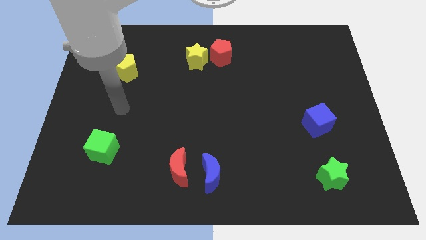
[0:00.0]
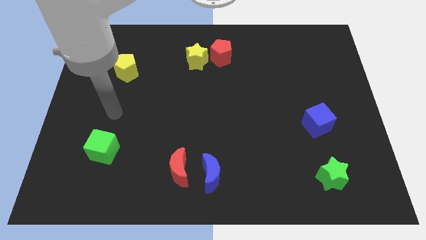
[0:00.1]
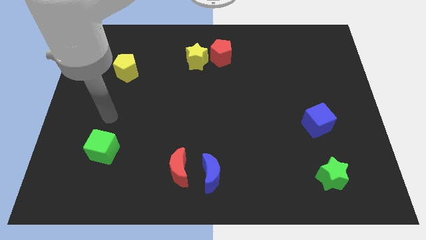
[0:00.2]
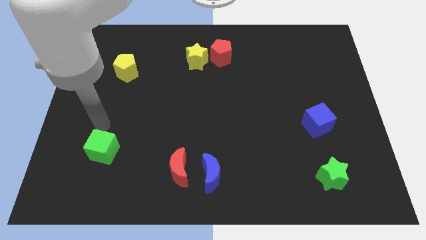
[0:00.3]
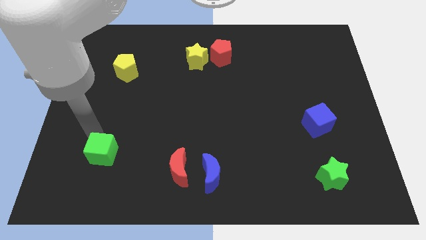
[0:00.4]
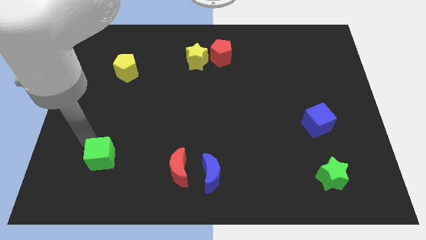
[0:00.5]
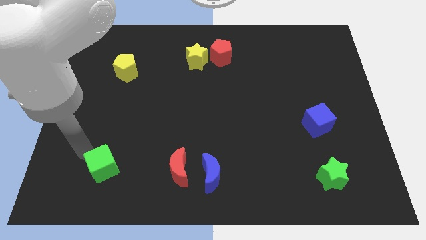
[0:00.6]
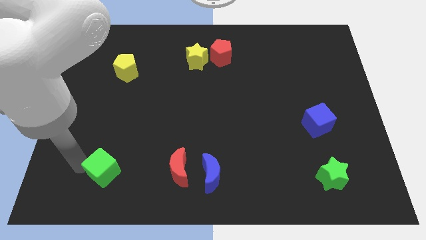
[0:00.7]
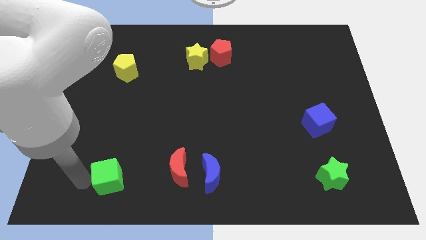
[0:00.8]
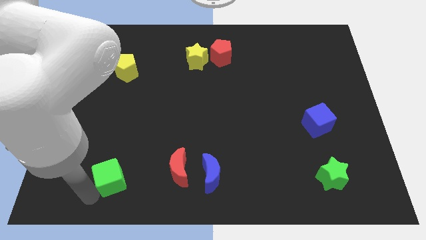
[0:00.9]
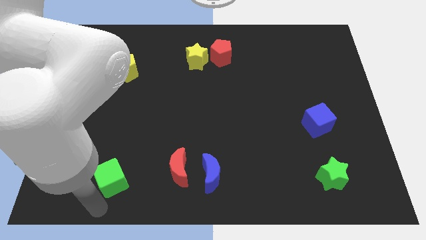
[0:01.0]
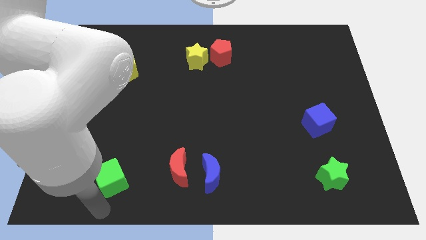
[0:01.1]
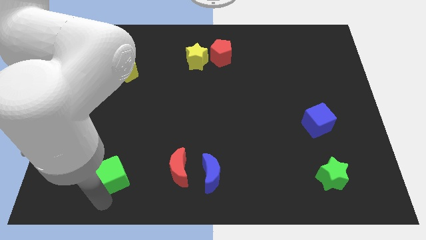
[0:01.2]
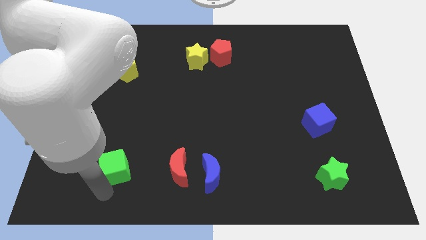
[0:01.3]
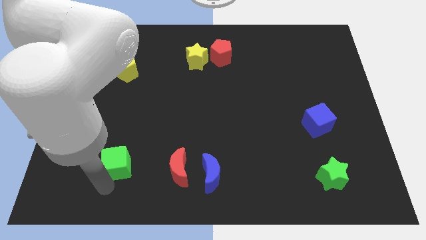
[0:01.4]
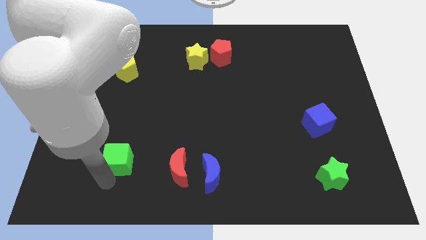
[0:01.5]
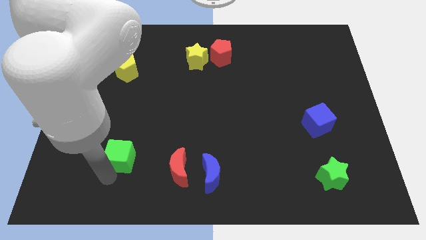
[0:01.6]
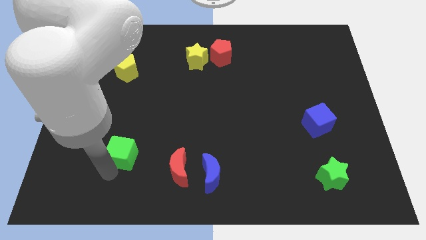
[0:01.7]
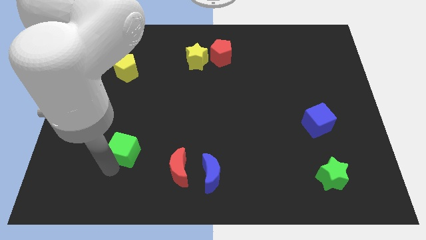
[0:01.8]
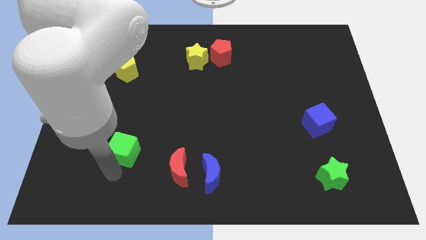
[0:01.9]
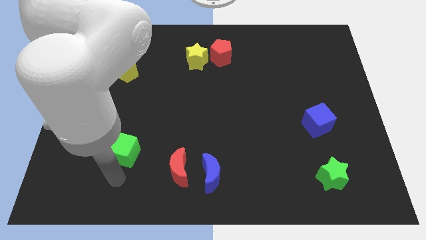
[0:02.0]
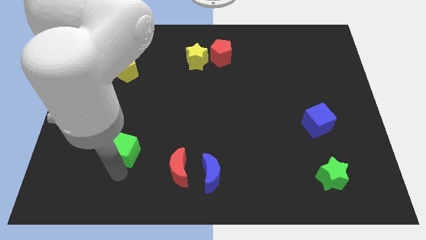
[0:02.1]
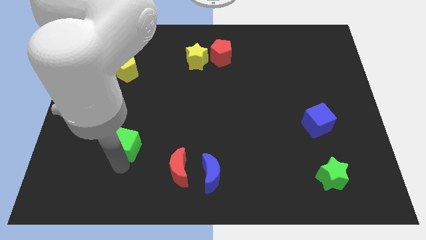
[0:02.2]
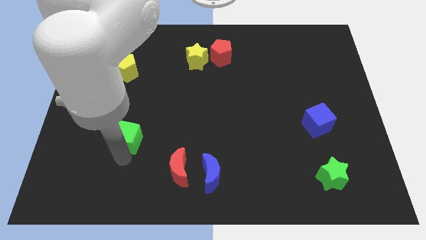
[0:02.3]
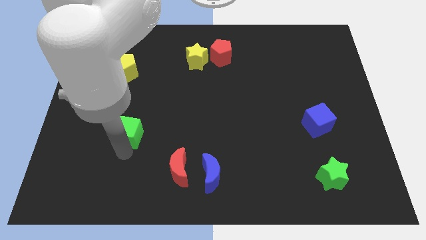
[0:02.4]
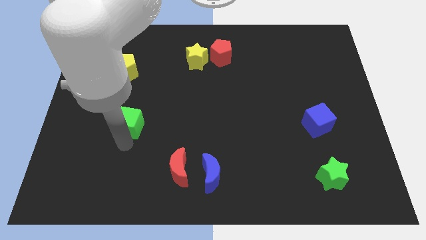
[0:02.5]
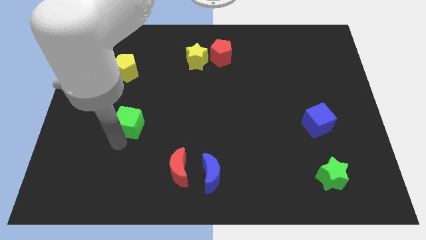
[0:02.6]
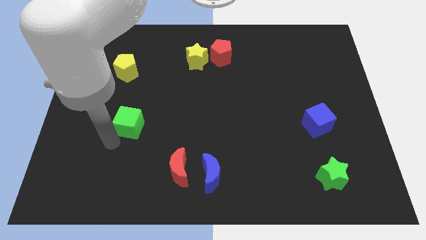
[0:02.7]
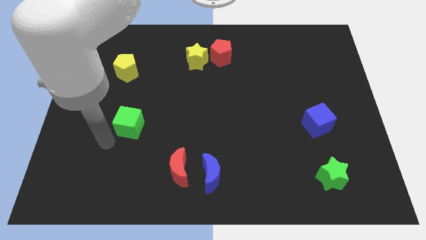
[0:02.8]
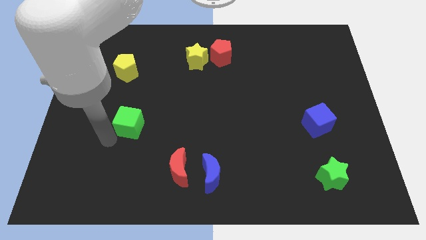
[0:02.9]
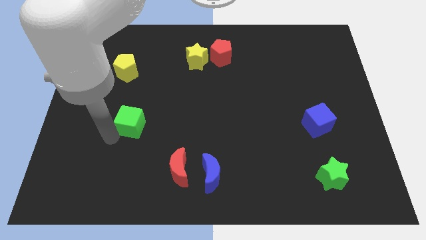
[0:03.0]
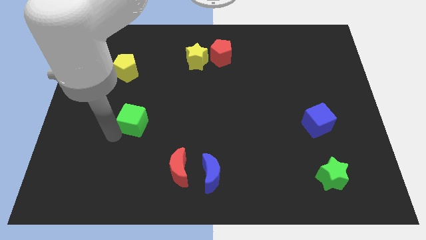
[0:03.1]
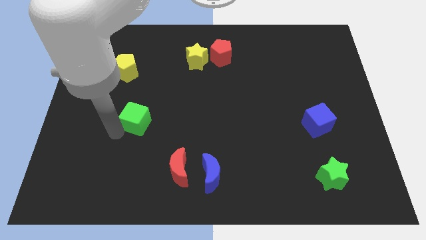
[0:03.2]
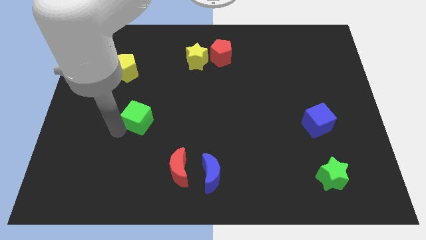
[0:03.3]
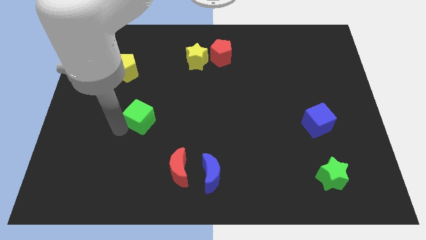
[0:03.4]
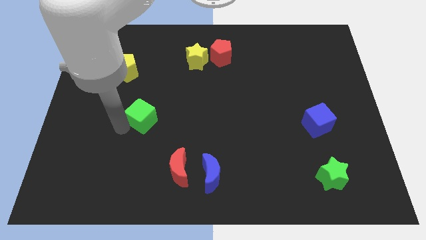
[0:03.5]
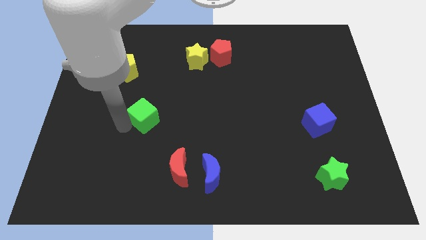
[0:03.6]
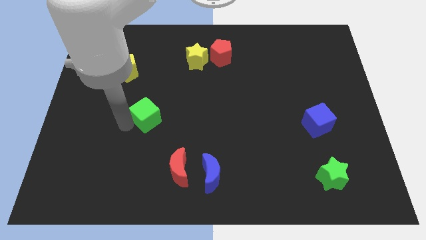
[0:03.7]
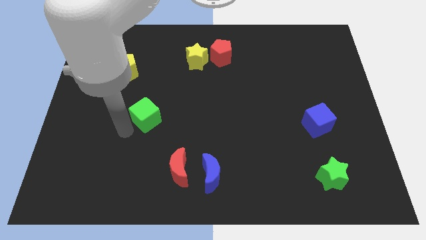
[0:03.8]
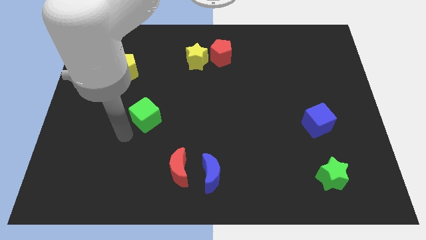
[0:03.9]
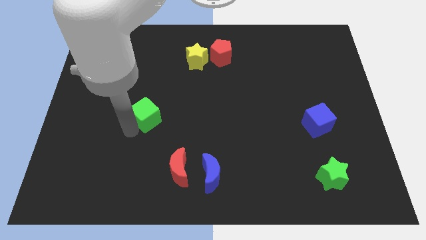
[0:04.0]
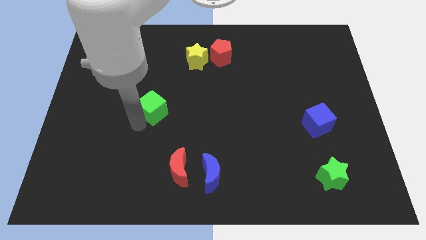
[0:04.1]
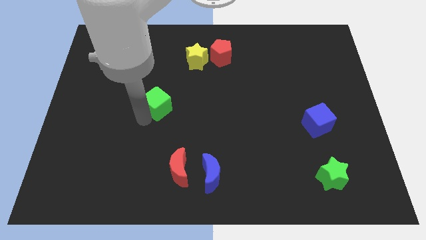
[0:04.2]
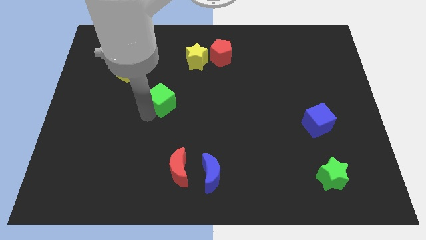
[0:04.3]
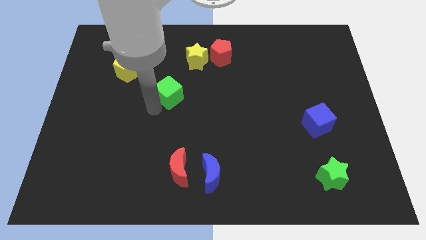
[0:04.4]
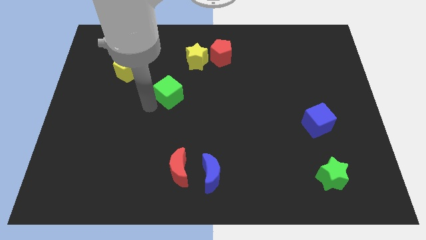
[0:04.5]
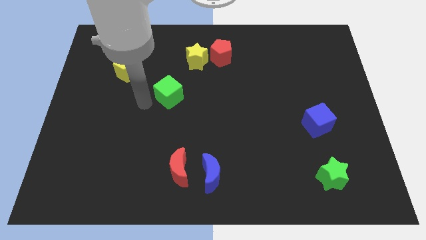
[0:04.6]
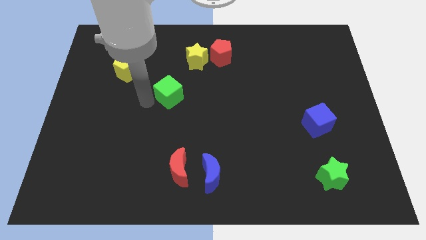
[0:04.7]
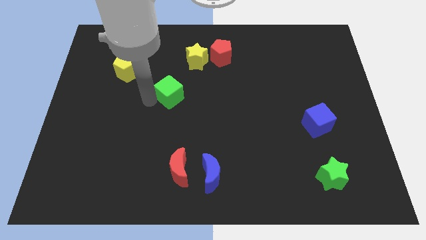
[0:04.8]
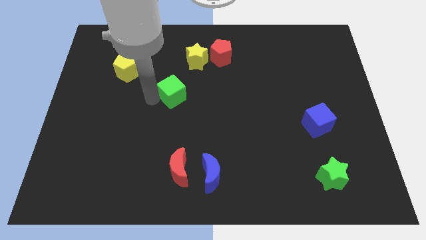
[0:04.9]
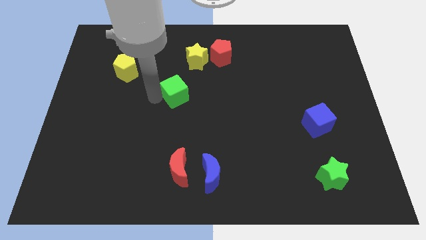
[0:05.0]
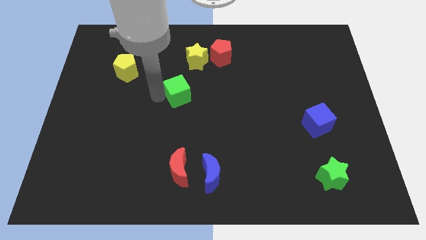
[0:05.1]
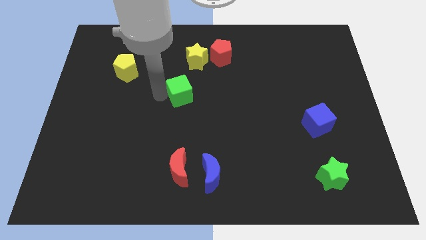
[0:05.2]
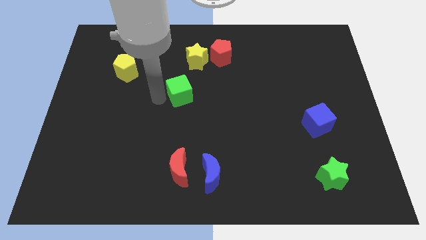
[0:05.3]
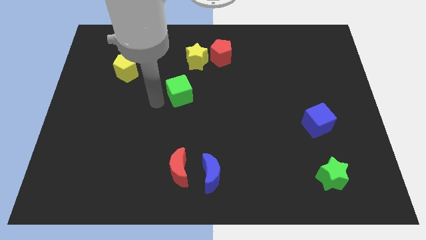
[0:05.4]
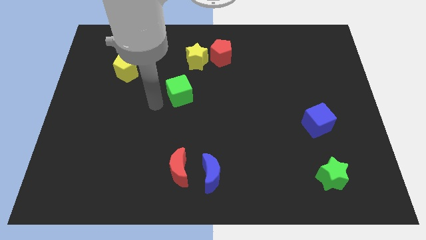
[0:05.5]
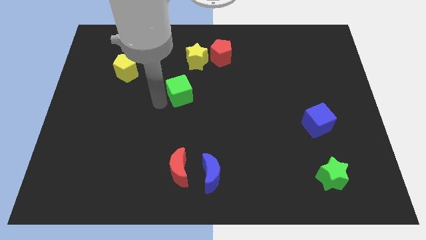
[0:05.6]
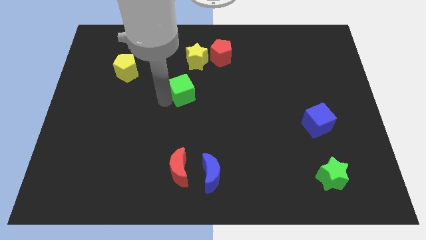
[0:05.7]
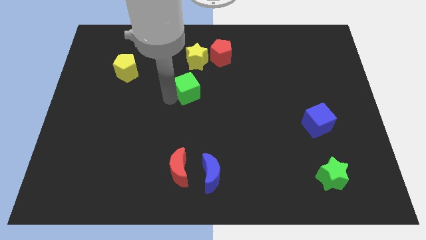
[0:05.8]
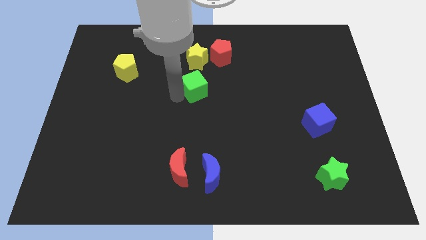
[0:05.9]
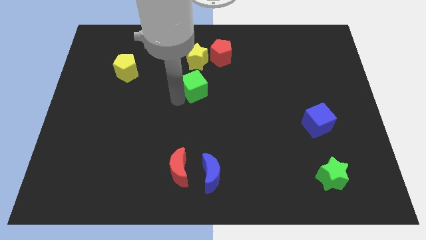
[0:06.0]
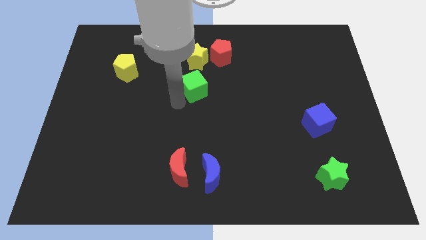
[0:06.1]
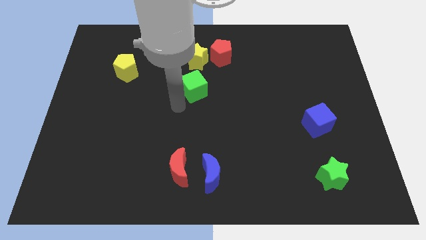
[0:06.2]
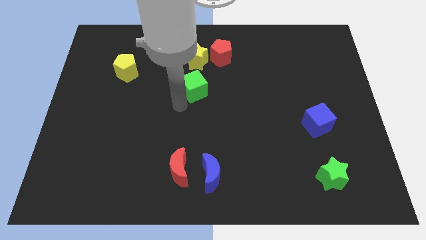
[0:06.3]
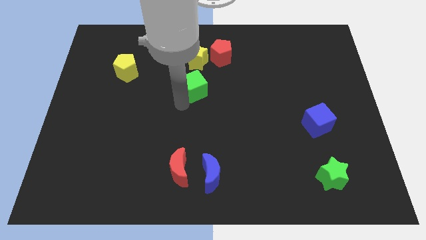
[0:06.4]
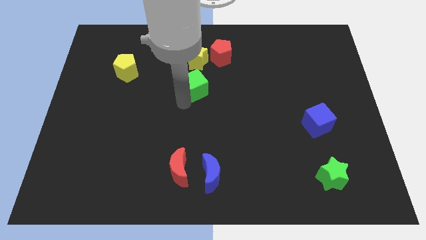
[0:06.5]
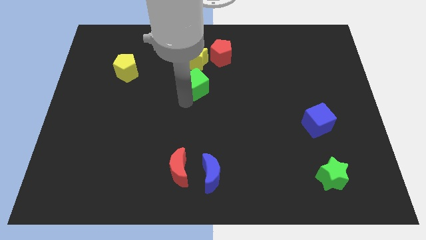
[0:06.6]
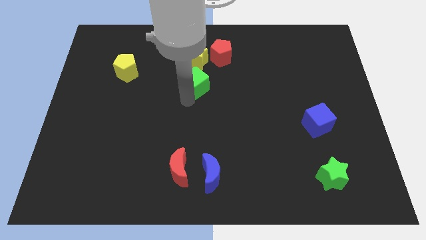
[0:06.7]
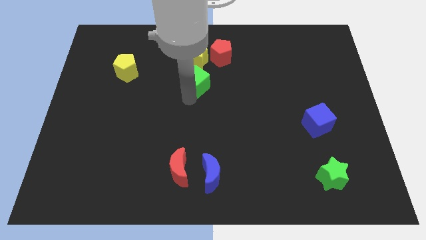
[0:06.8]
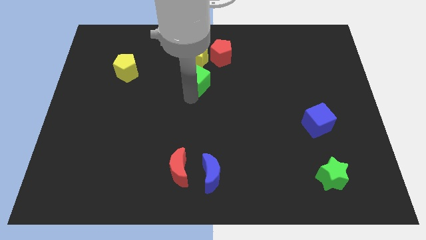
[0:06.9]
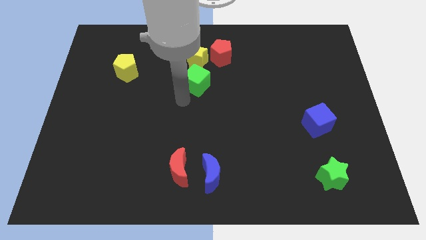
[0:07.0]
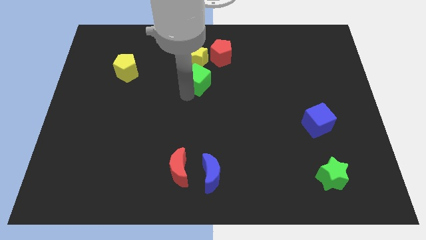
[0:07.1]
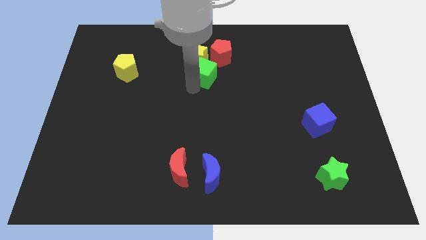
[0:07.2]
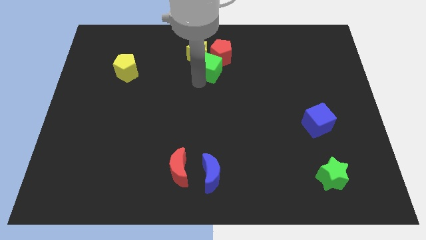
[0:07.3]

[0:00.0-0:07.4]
move the green cube close to the red pentagon
